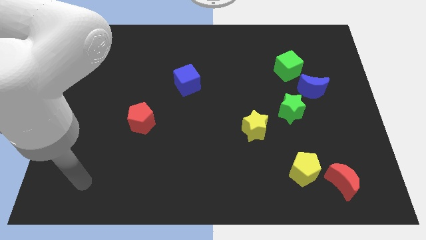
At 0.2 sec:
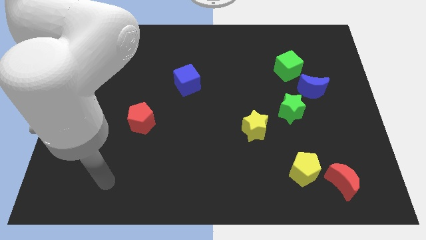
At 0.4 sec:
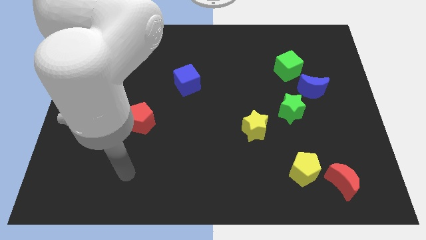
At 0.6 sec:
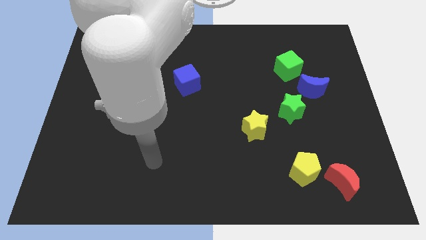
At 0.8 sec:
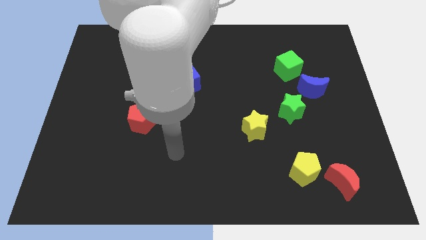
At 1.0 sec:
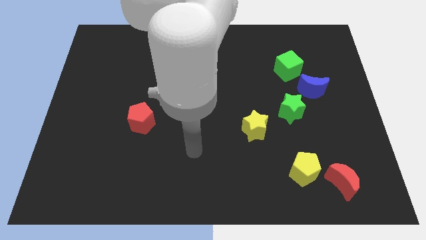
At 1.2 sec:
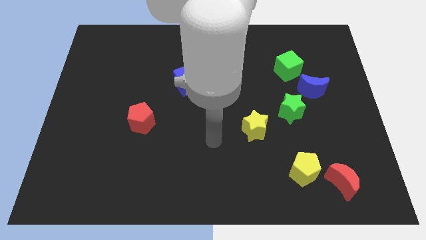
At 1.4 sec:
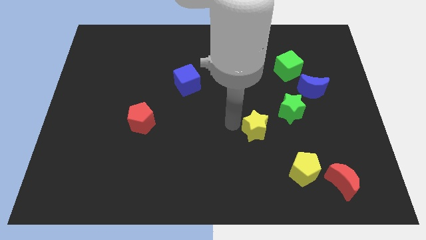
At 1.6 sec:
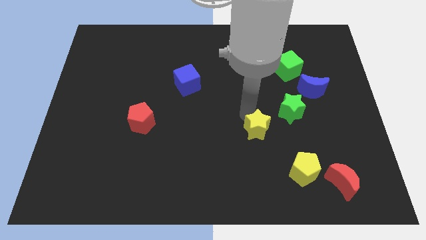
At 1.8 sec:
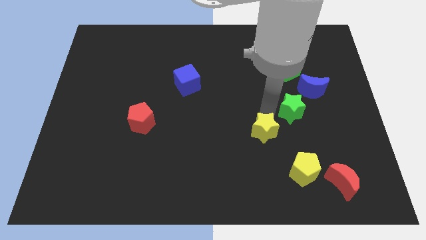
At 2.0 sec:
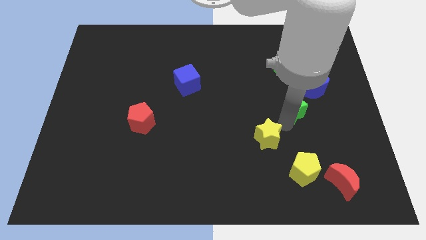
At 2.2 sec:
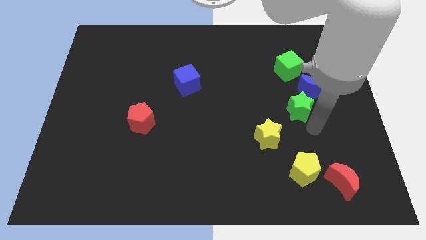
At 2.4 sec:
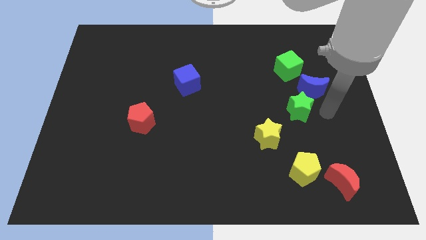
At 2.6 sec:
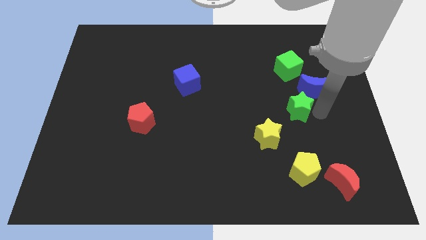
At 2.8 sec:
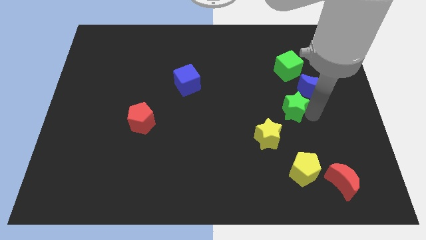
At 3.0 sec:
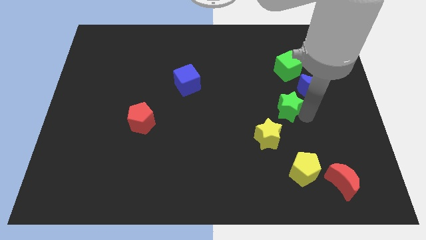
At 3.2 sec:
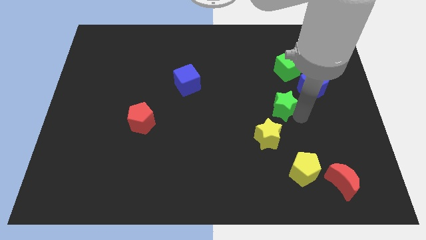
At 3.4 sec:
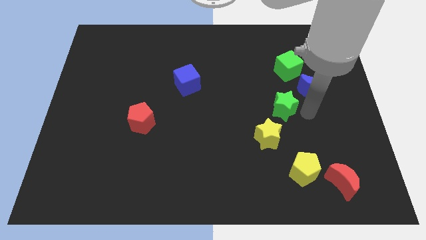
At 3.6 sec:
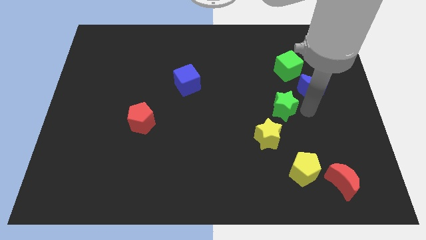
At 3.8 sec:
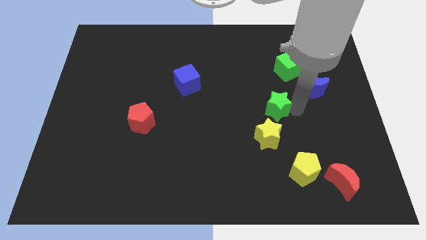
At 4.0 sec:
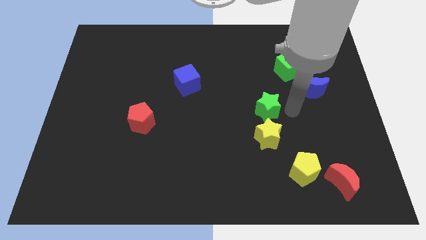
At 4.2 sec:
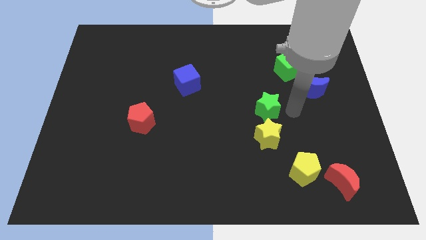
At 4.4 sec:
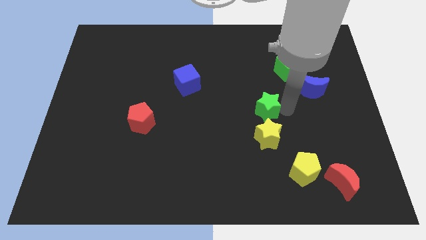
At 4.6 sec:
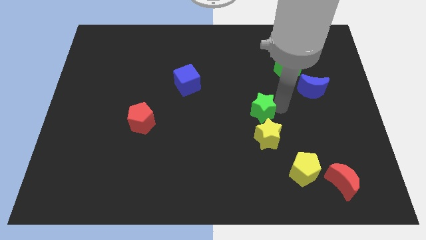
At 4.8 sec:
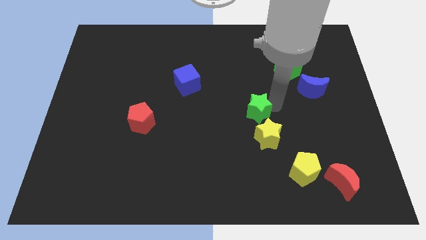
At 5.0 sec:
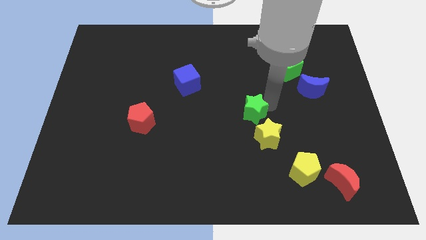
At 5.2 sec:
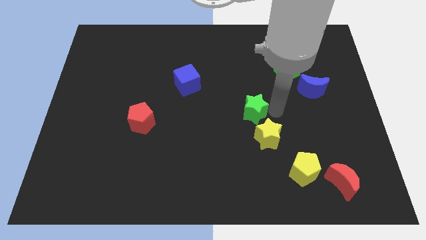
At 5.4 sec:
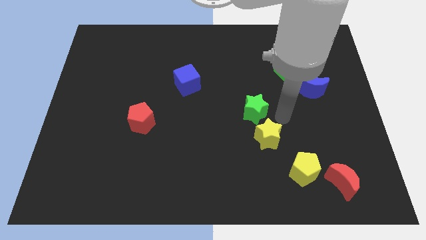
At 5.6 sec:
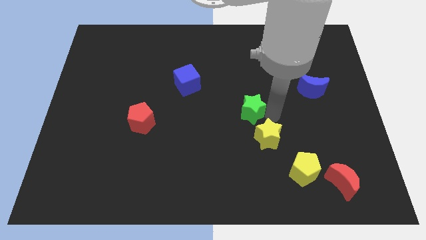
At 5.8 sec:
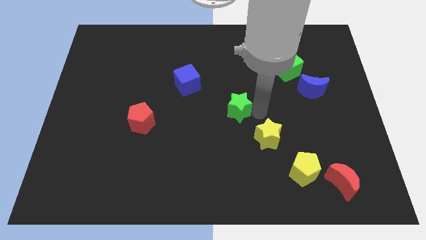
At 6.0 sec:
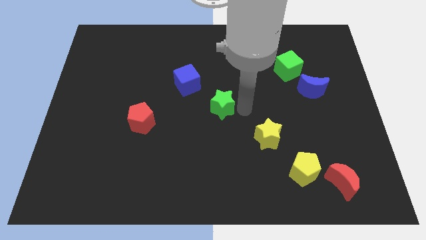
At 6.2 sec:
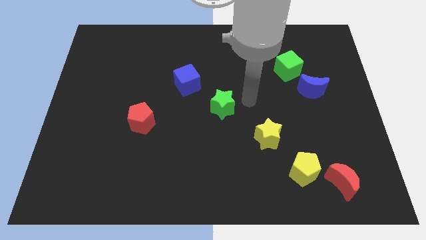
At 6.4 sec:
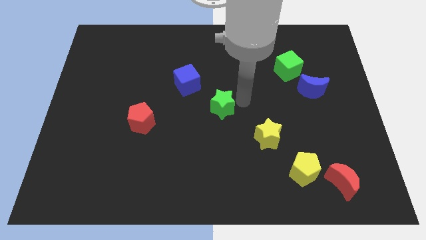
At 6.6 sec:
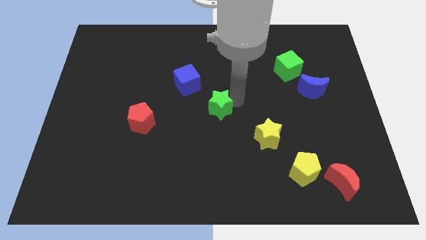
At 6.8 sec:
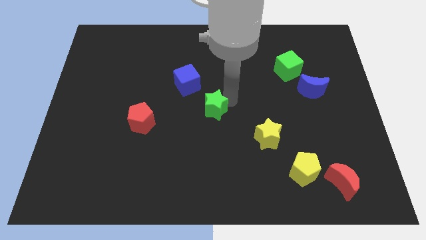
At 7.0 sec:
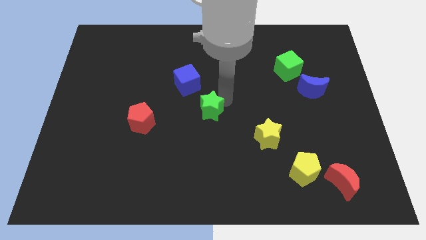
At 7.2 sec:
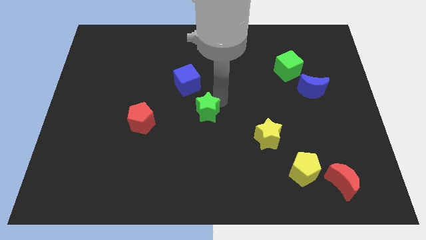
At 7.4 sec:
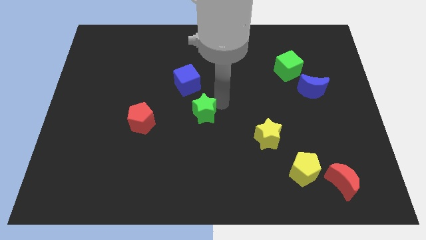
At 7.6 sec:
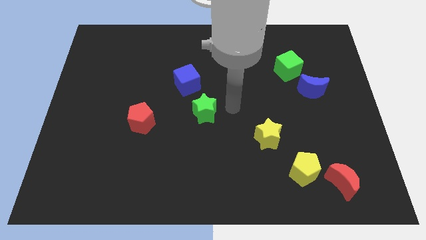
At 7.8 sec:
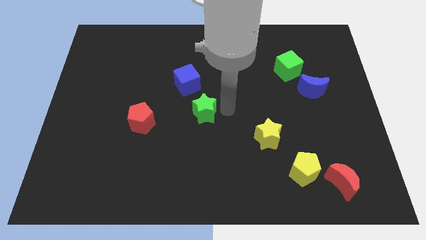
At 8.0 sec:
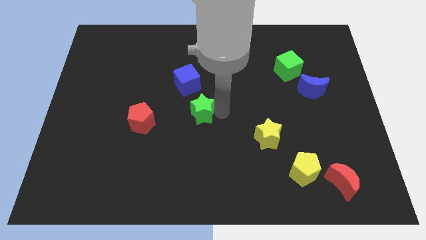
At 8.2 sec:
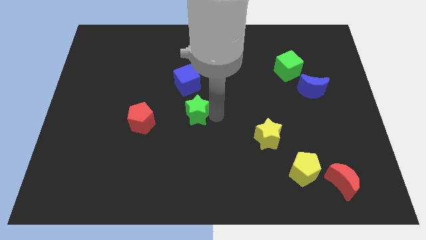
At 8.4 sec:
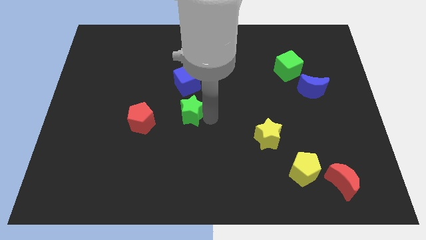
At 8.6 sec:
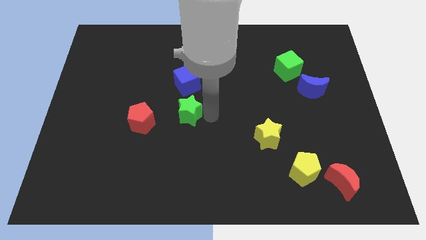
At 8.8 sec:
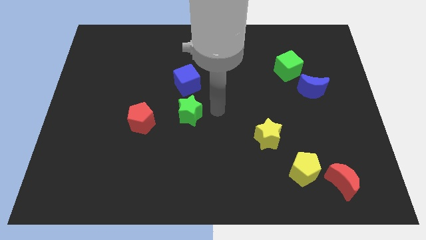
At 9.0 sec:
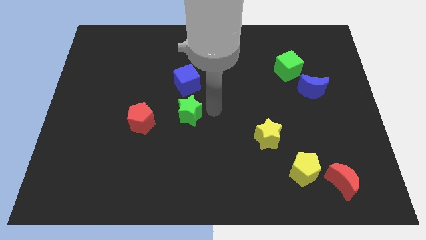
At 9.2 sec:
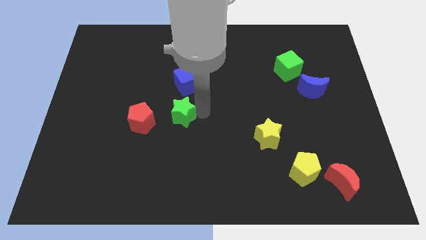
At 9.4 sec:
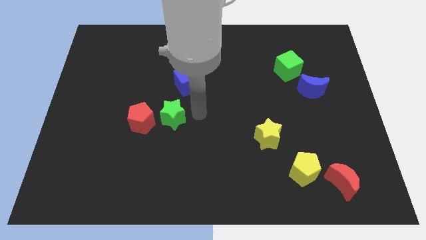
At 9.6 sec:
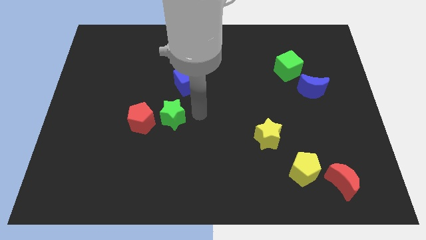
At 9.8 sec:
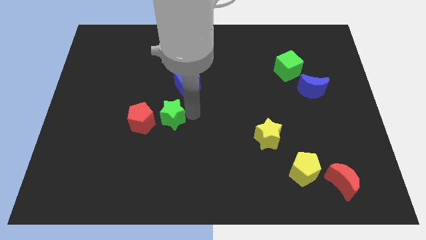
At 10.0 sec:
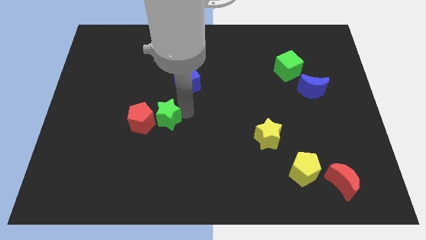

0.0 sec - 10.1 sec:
move the green star next to the red pentagon
